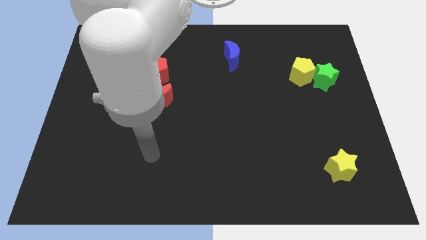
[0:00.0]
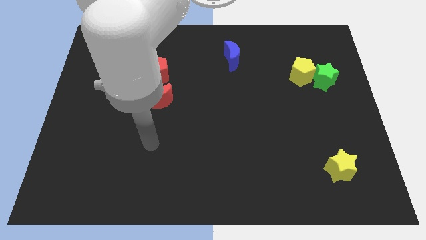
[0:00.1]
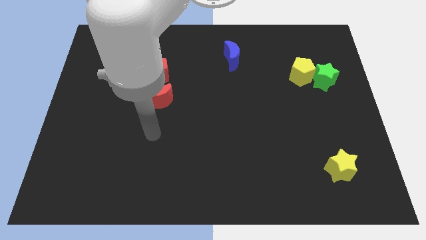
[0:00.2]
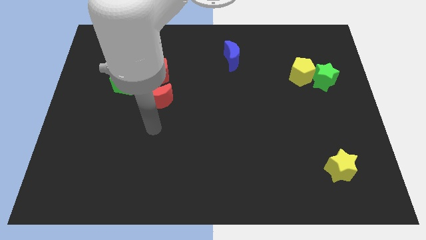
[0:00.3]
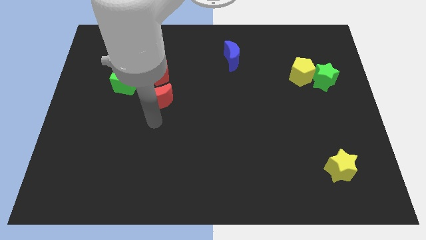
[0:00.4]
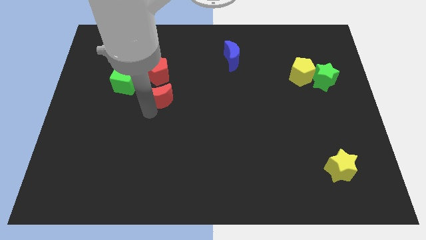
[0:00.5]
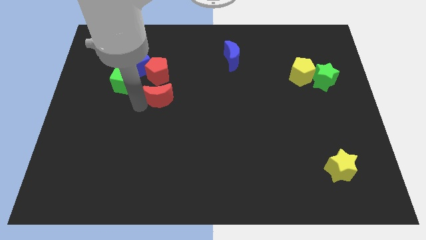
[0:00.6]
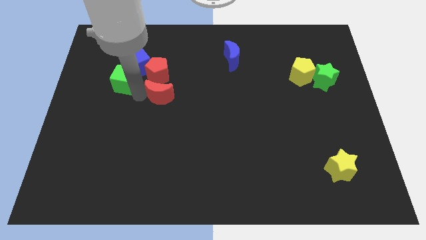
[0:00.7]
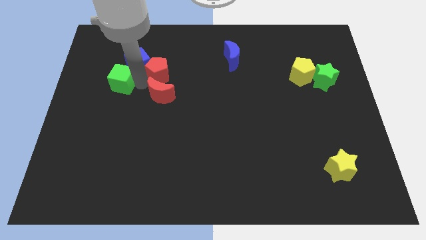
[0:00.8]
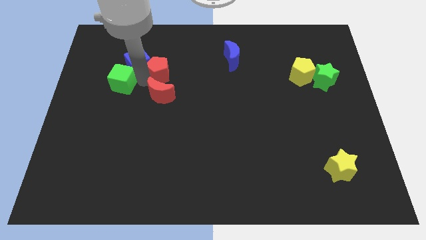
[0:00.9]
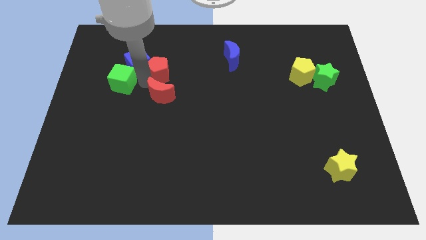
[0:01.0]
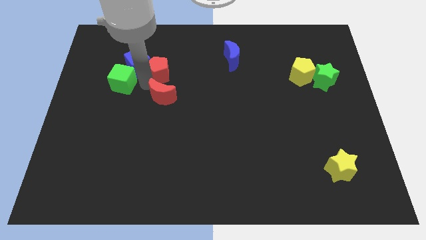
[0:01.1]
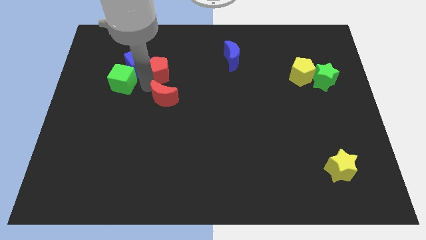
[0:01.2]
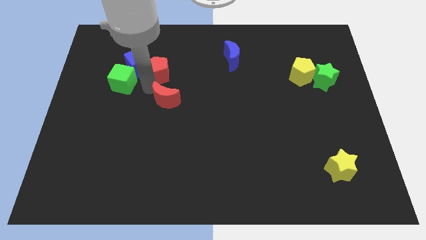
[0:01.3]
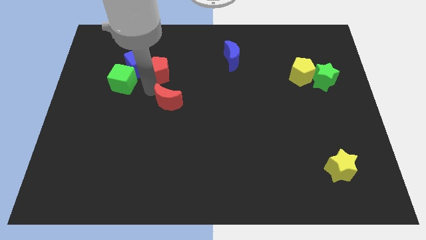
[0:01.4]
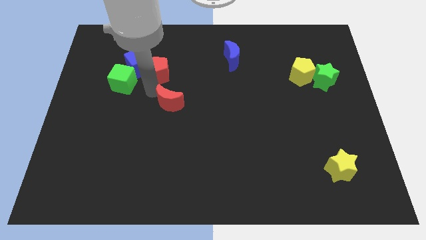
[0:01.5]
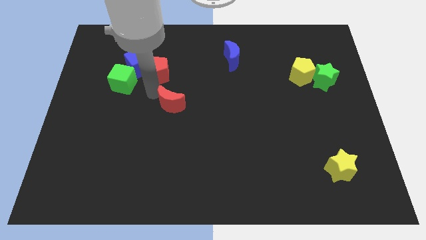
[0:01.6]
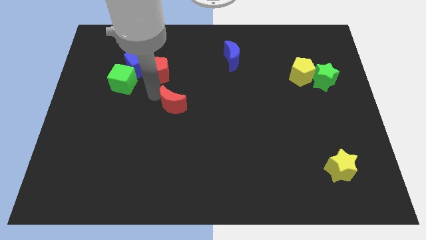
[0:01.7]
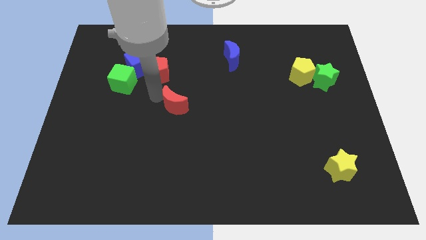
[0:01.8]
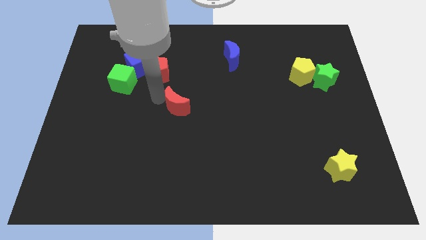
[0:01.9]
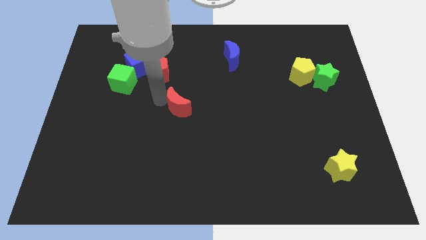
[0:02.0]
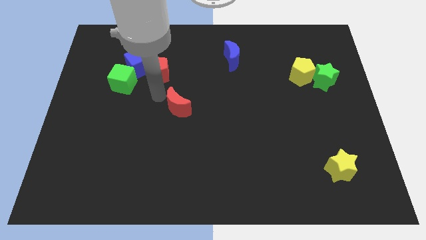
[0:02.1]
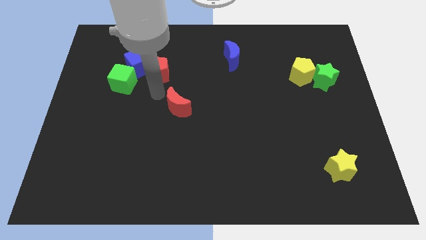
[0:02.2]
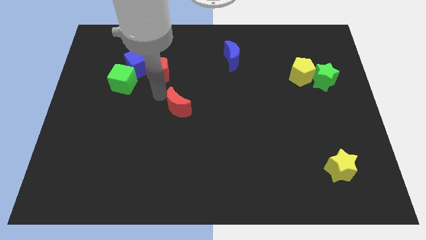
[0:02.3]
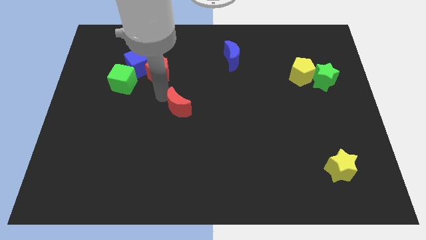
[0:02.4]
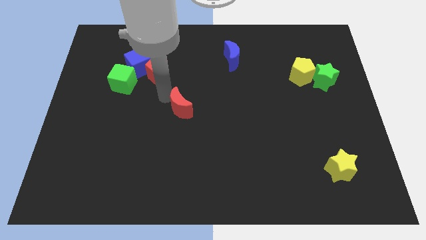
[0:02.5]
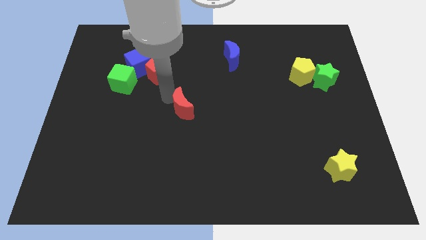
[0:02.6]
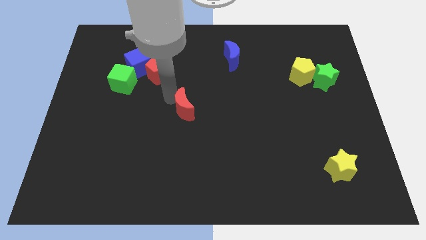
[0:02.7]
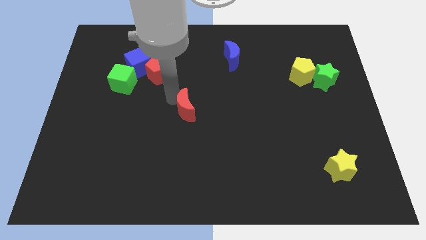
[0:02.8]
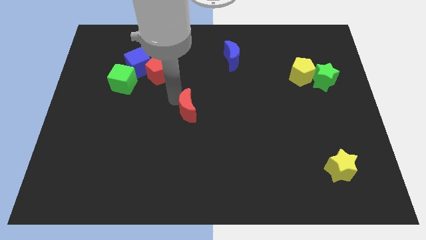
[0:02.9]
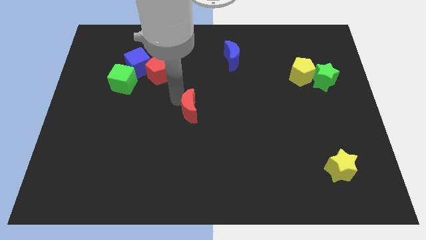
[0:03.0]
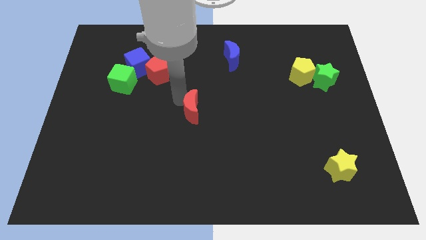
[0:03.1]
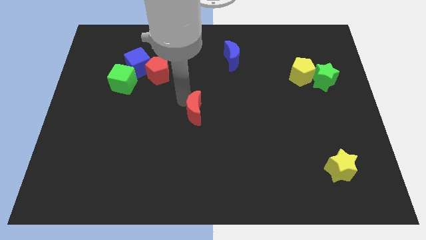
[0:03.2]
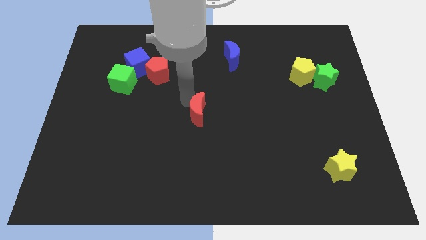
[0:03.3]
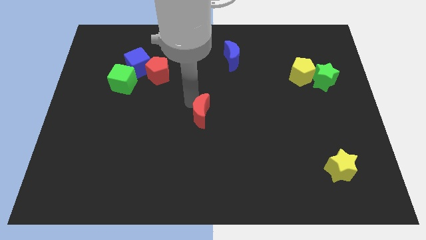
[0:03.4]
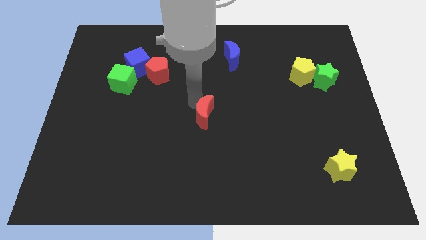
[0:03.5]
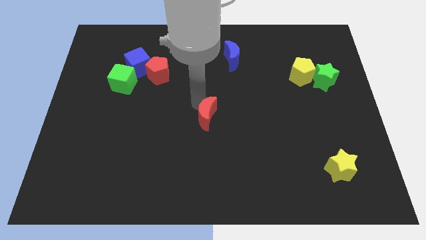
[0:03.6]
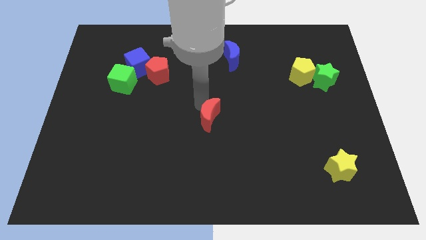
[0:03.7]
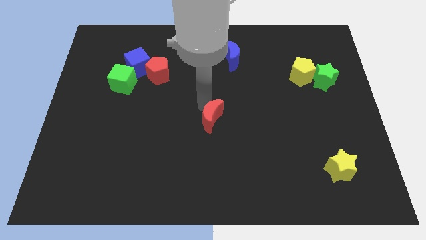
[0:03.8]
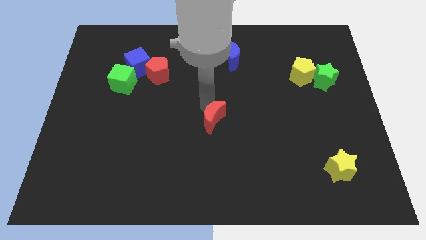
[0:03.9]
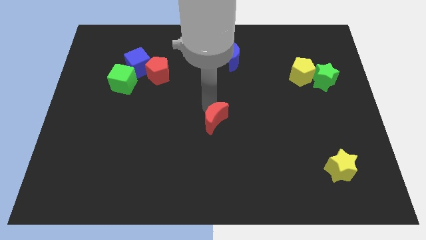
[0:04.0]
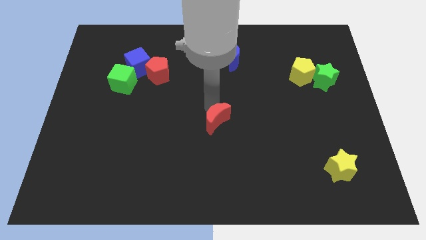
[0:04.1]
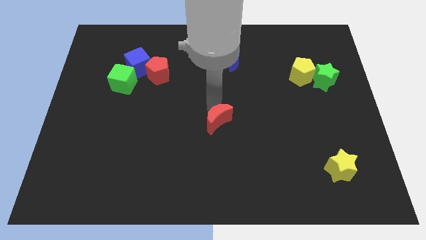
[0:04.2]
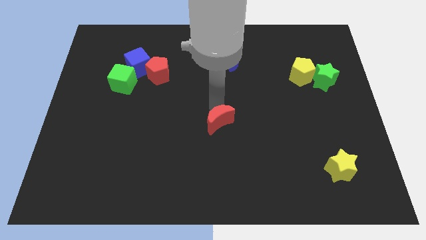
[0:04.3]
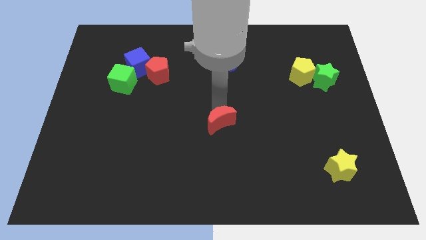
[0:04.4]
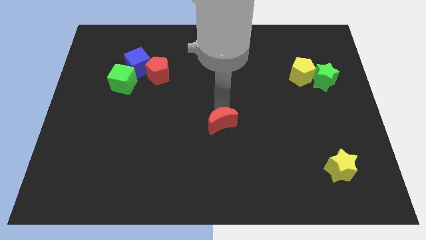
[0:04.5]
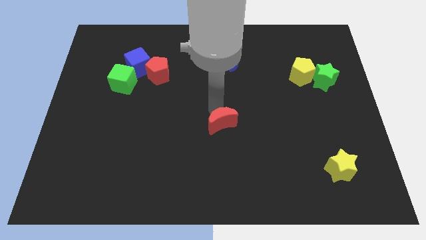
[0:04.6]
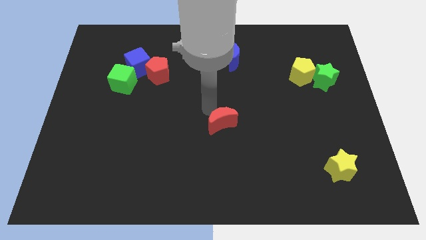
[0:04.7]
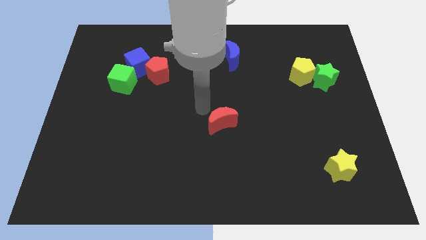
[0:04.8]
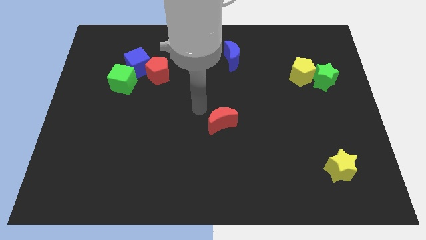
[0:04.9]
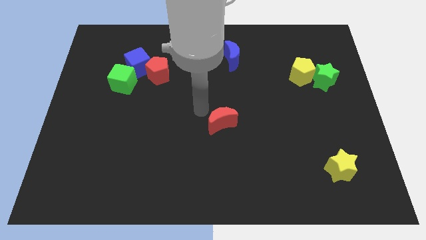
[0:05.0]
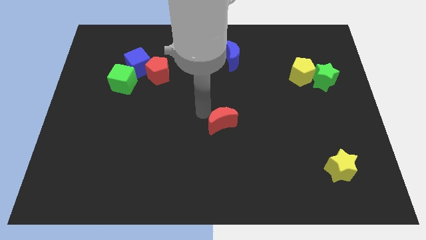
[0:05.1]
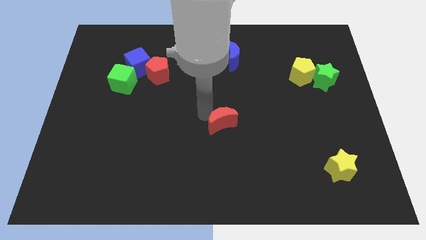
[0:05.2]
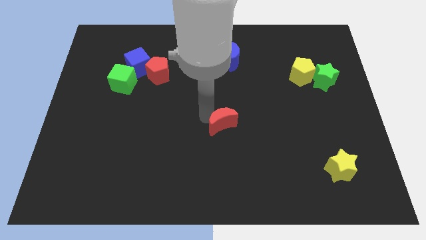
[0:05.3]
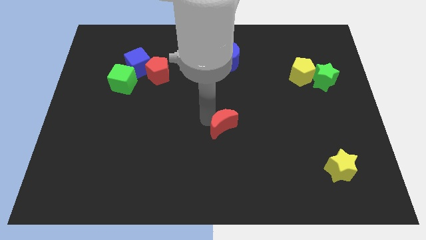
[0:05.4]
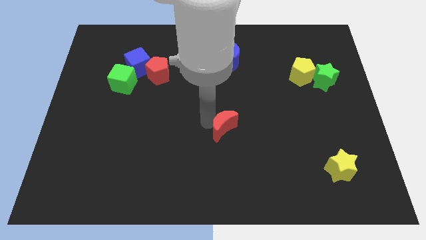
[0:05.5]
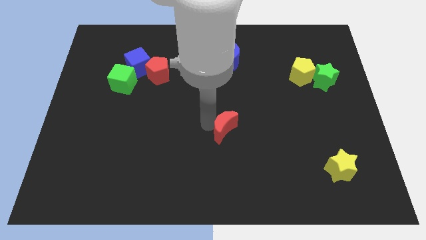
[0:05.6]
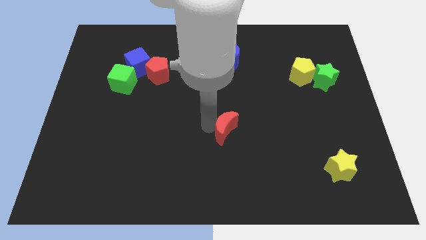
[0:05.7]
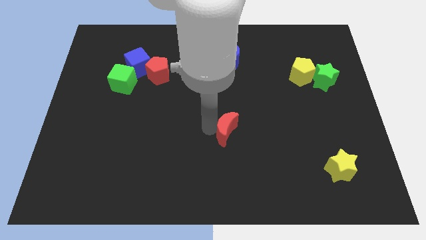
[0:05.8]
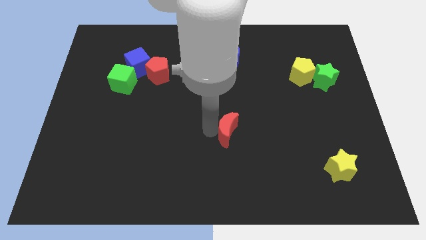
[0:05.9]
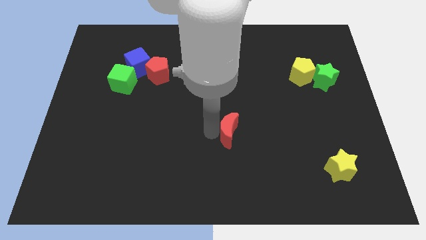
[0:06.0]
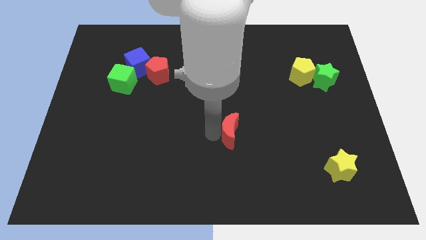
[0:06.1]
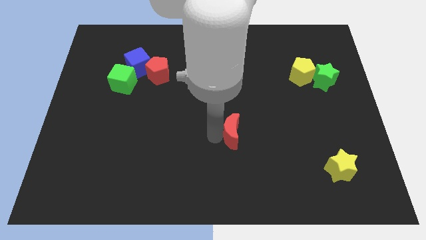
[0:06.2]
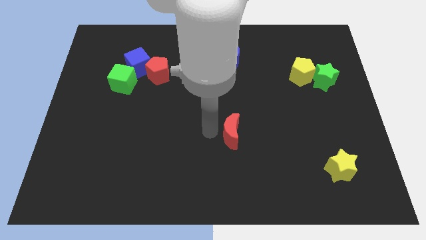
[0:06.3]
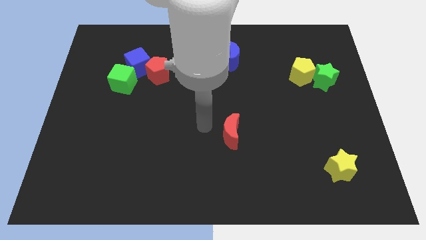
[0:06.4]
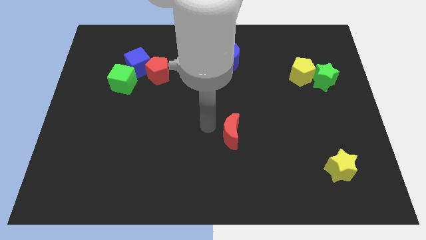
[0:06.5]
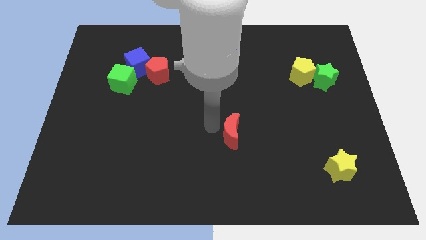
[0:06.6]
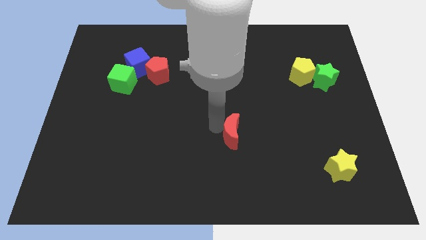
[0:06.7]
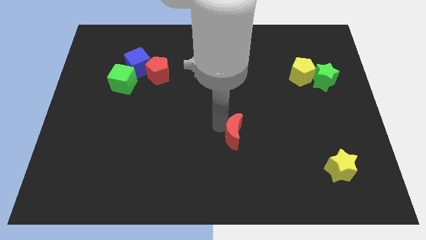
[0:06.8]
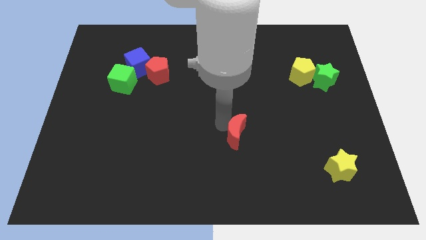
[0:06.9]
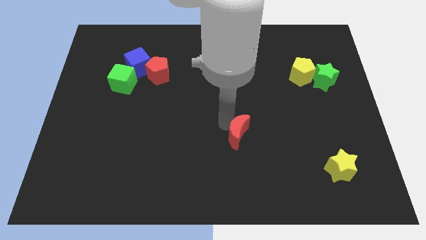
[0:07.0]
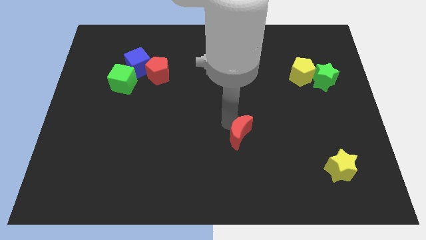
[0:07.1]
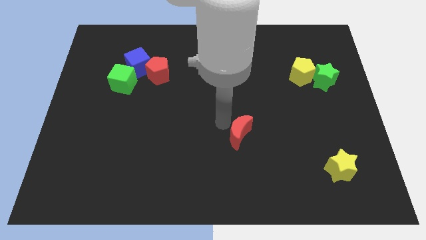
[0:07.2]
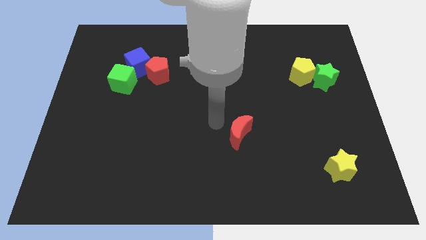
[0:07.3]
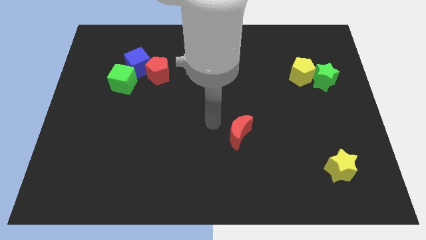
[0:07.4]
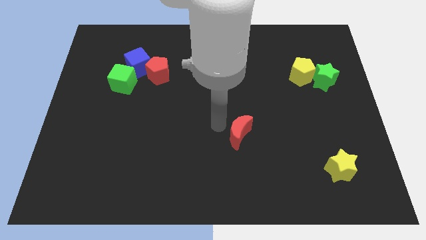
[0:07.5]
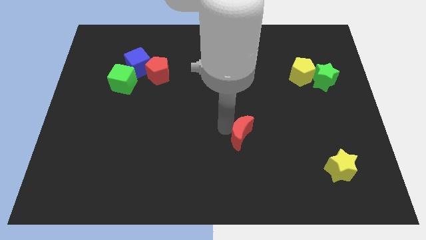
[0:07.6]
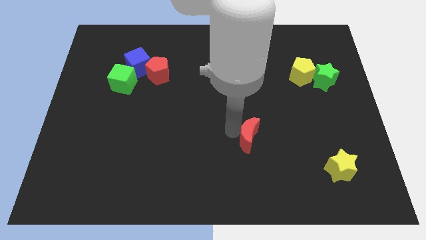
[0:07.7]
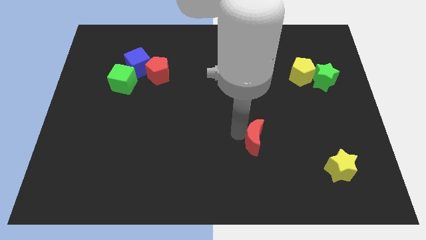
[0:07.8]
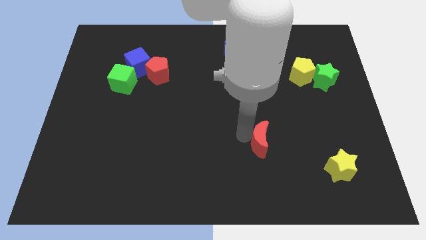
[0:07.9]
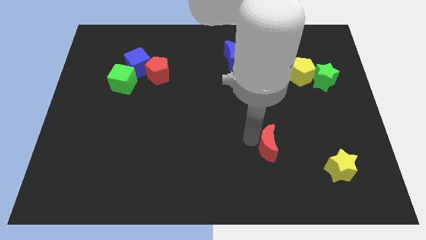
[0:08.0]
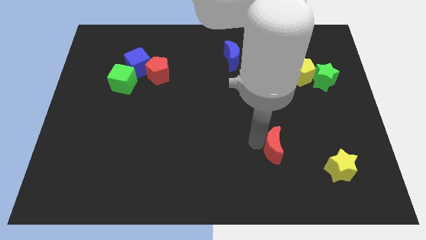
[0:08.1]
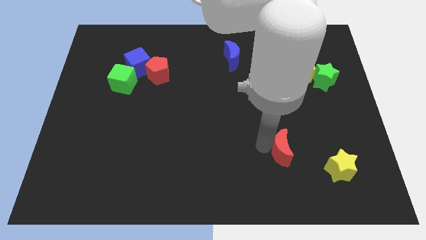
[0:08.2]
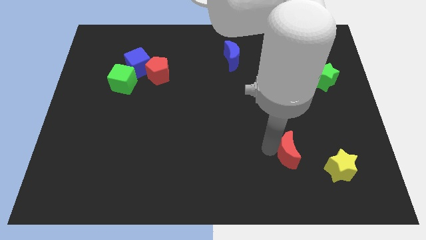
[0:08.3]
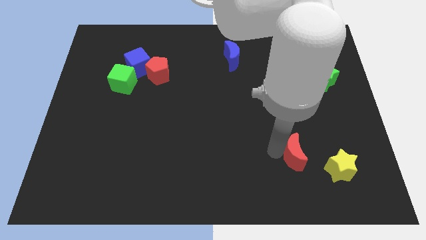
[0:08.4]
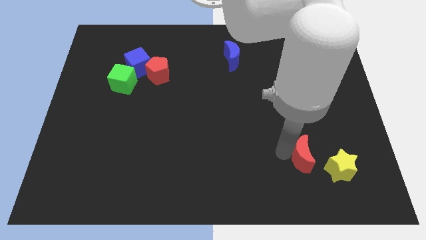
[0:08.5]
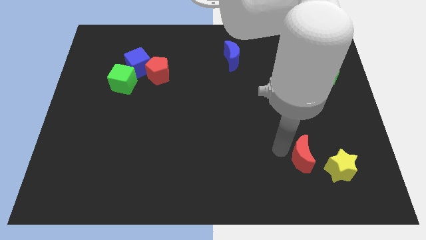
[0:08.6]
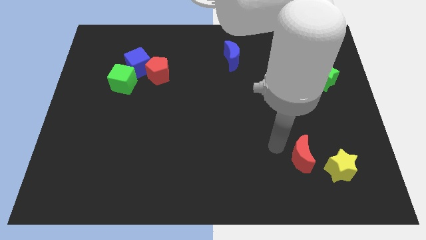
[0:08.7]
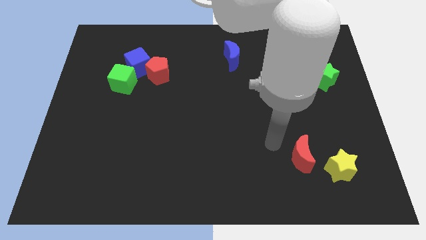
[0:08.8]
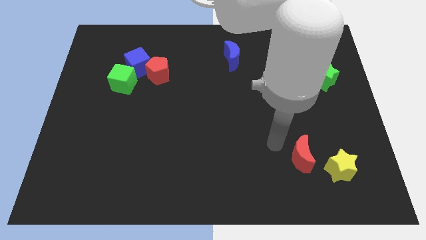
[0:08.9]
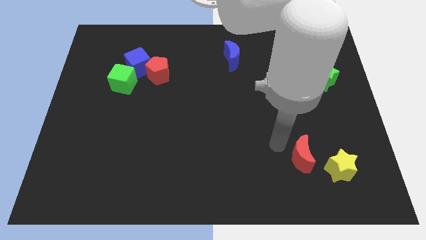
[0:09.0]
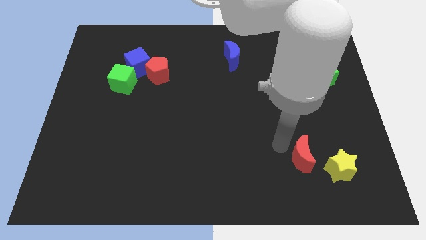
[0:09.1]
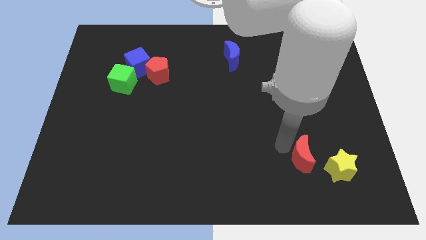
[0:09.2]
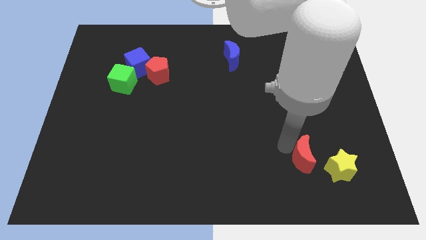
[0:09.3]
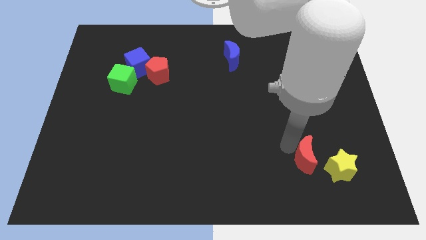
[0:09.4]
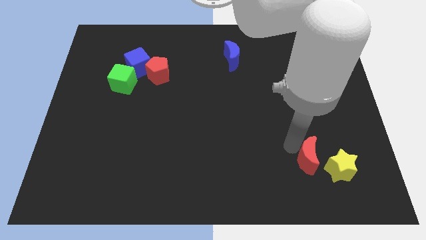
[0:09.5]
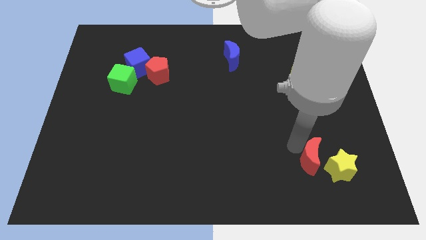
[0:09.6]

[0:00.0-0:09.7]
push the red moon to the yellow star
